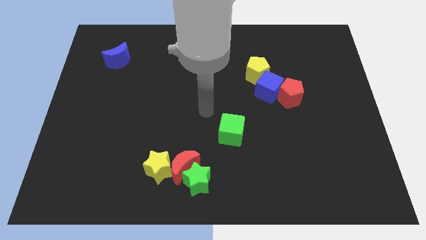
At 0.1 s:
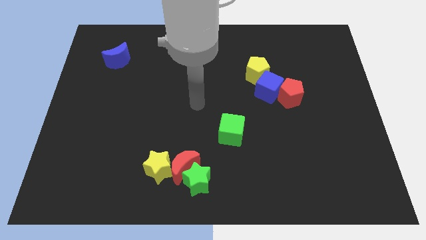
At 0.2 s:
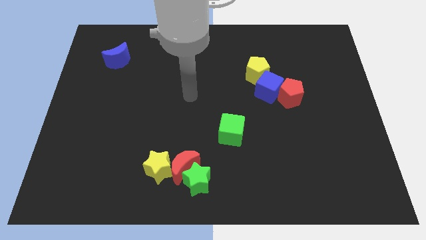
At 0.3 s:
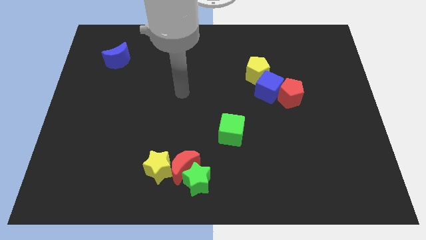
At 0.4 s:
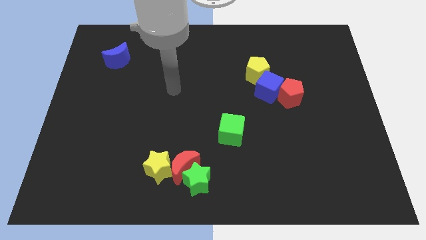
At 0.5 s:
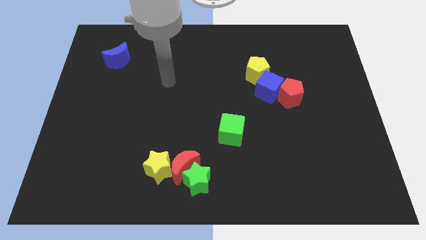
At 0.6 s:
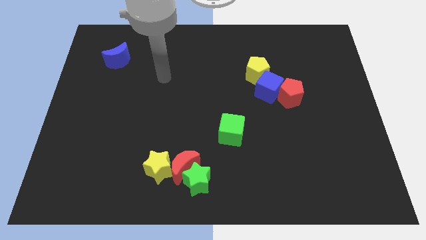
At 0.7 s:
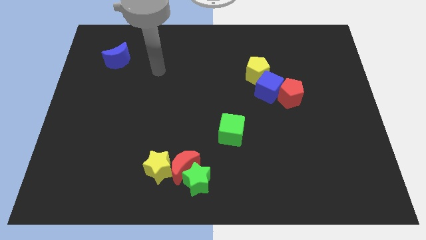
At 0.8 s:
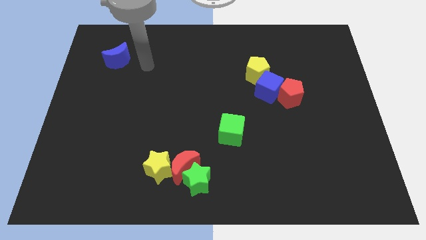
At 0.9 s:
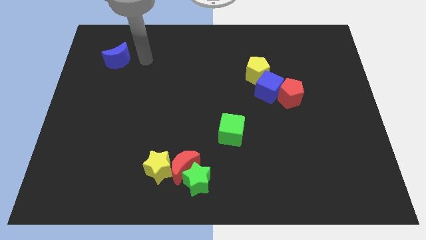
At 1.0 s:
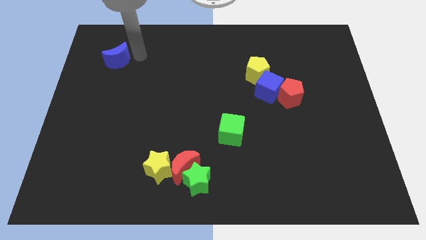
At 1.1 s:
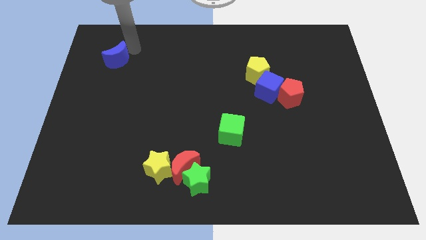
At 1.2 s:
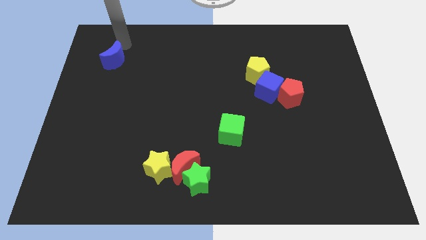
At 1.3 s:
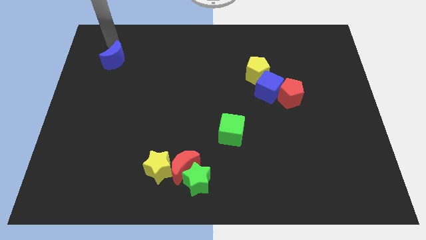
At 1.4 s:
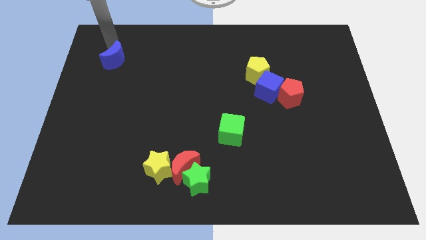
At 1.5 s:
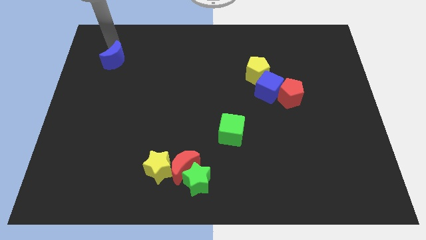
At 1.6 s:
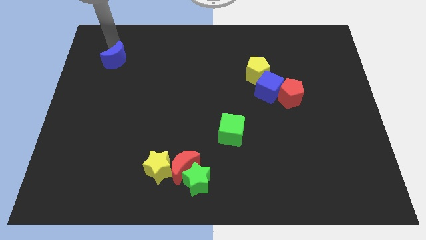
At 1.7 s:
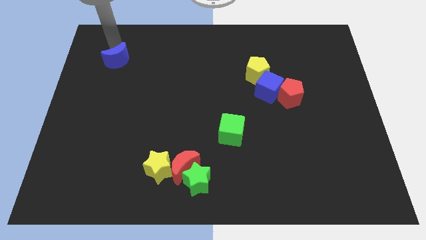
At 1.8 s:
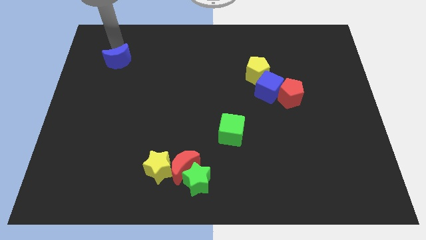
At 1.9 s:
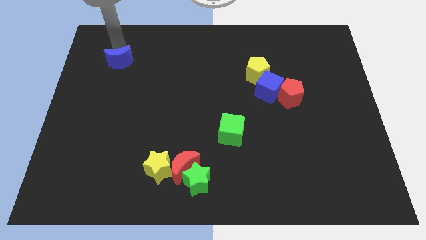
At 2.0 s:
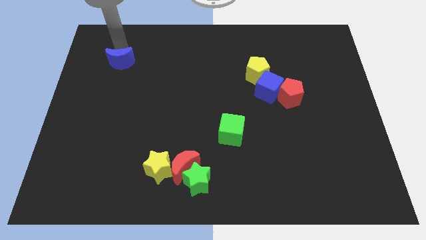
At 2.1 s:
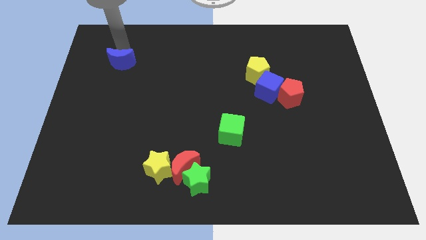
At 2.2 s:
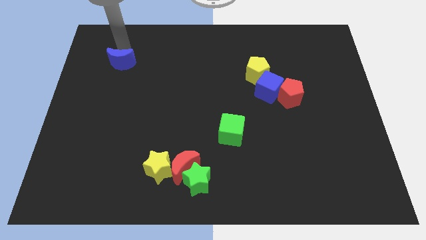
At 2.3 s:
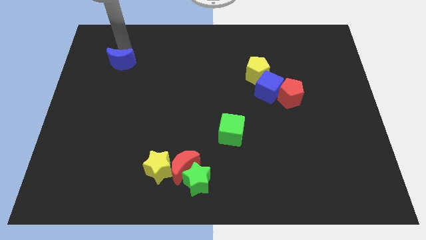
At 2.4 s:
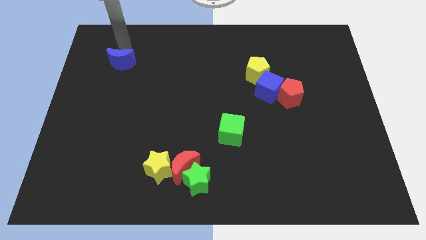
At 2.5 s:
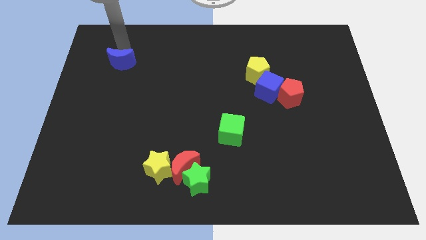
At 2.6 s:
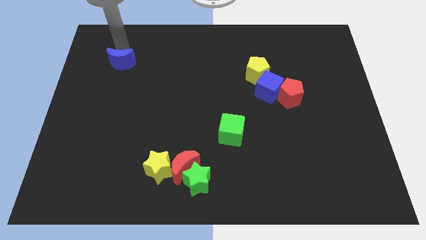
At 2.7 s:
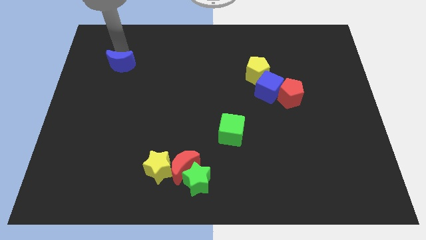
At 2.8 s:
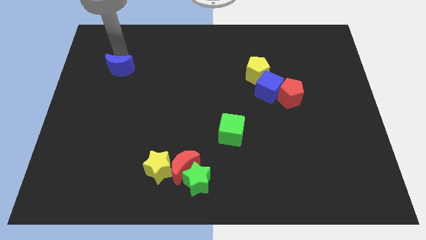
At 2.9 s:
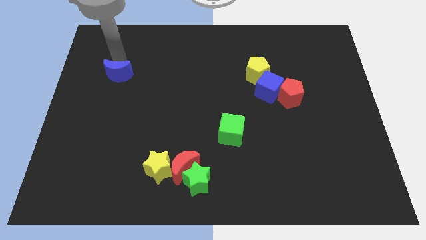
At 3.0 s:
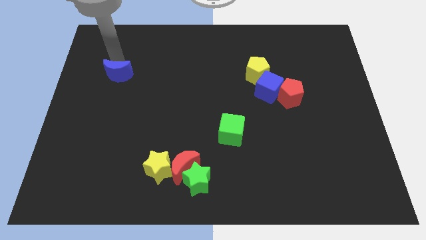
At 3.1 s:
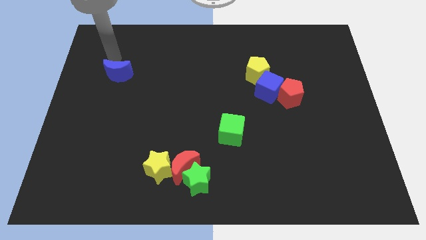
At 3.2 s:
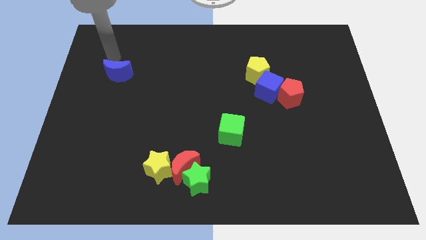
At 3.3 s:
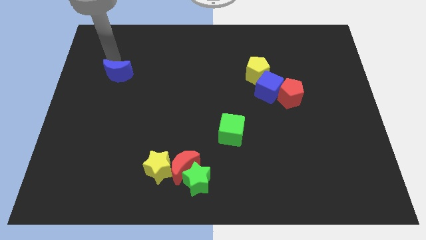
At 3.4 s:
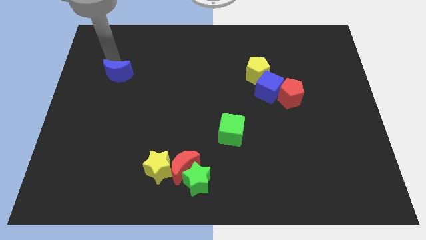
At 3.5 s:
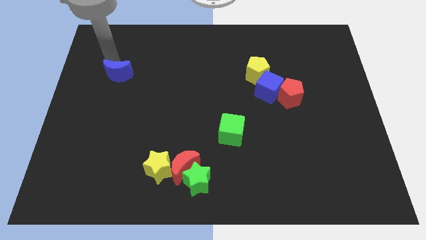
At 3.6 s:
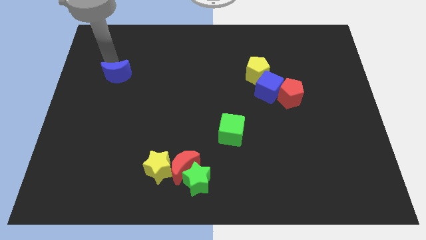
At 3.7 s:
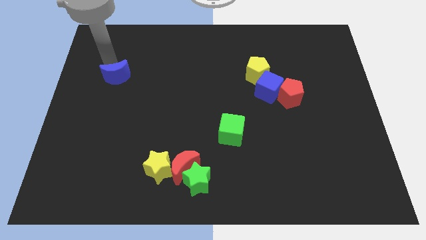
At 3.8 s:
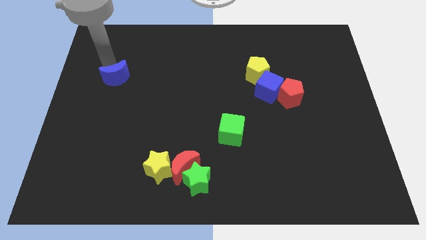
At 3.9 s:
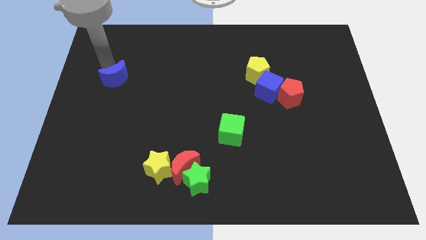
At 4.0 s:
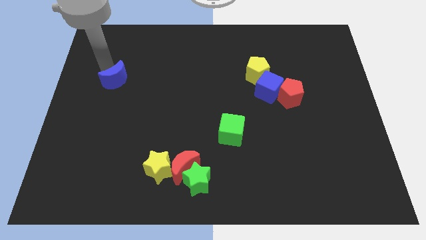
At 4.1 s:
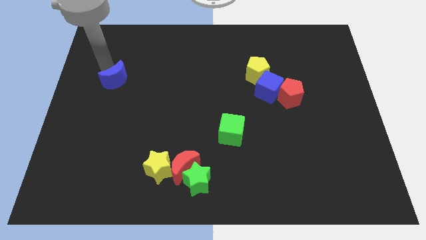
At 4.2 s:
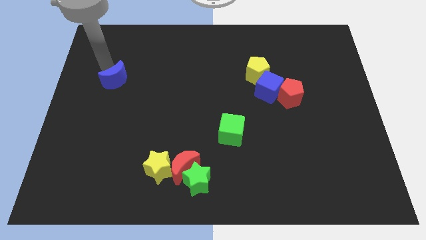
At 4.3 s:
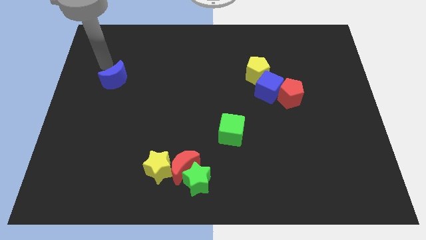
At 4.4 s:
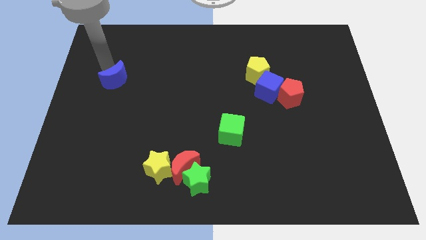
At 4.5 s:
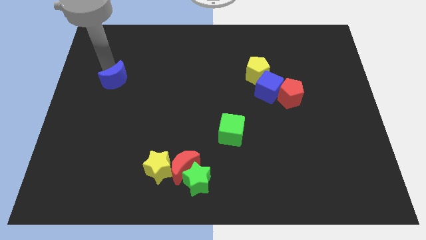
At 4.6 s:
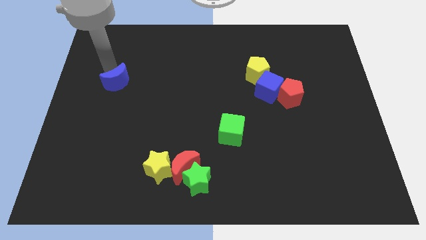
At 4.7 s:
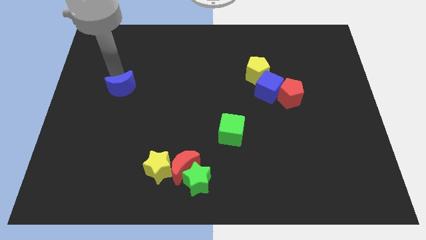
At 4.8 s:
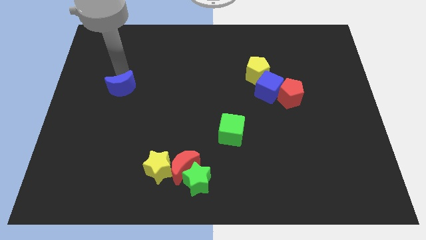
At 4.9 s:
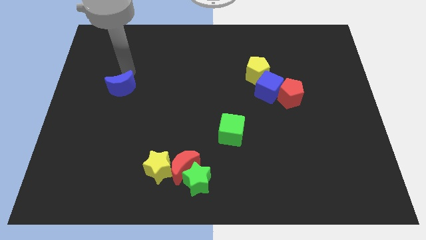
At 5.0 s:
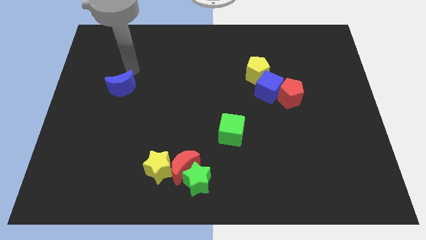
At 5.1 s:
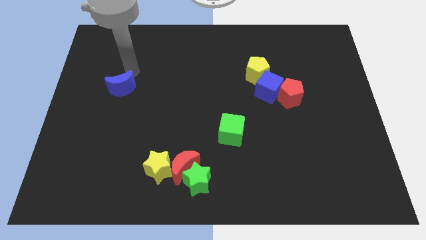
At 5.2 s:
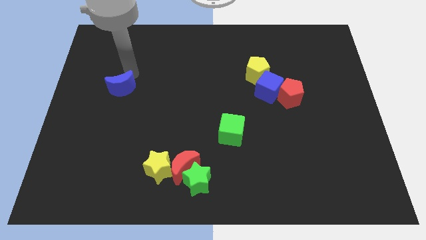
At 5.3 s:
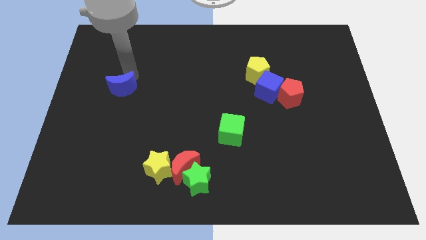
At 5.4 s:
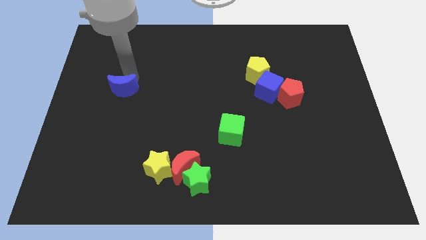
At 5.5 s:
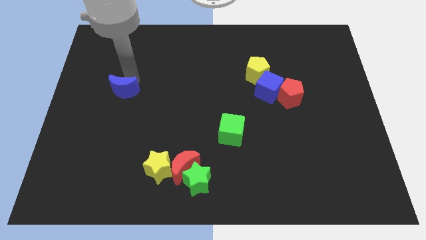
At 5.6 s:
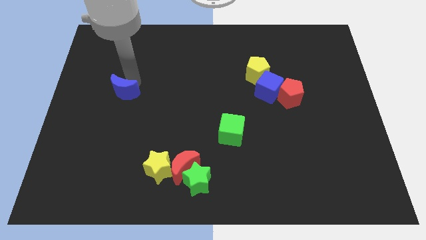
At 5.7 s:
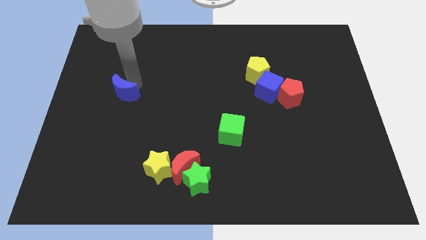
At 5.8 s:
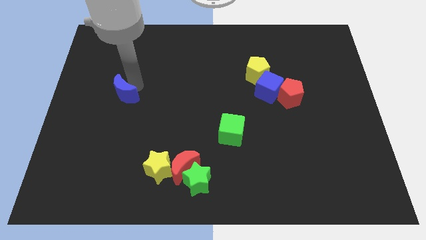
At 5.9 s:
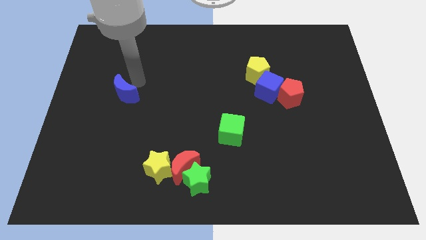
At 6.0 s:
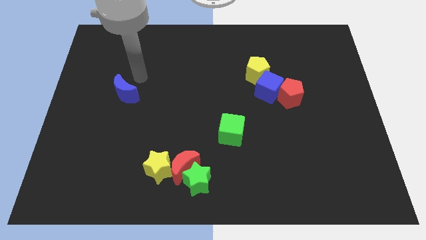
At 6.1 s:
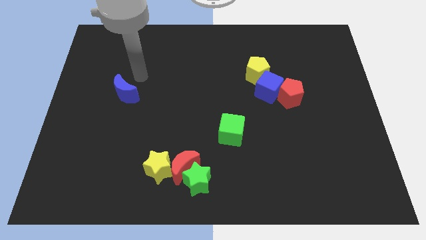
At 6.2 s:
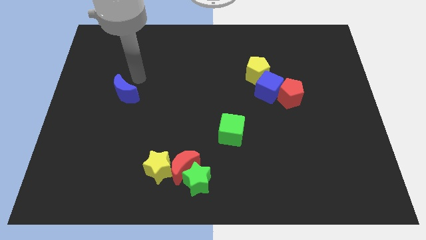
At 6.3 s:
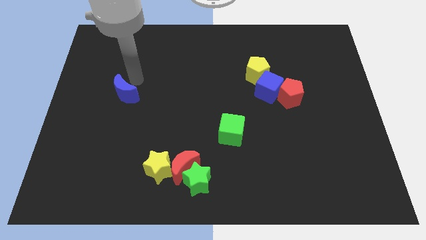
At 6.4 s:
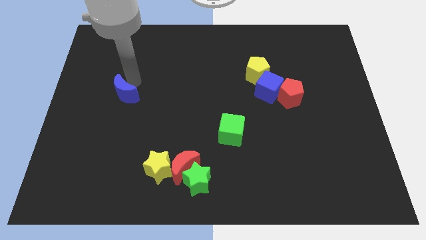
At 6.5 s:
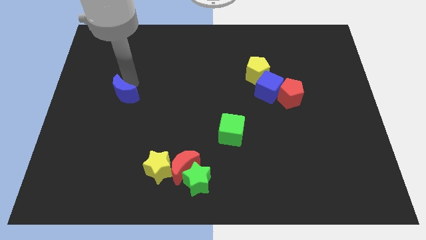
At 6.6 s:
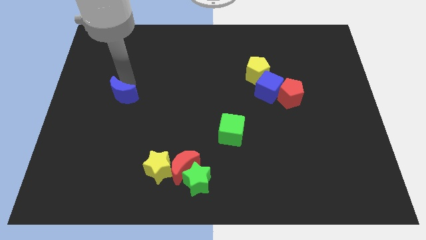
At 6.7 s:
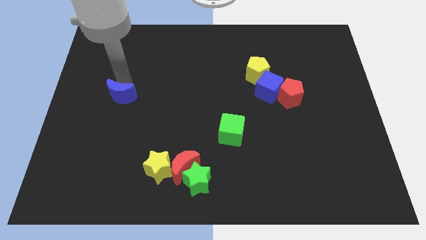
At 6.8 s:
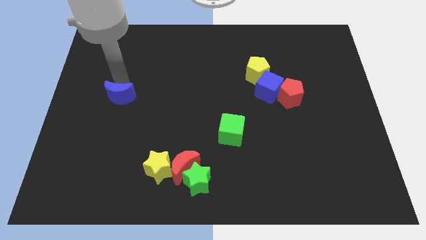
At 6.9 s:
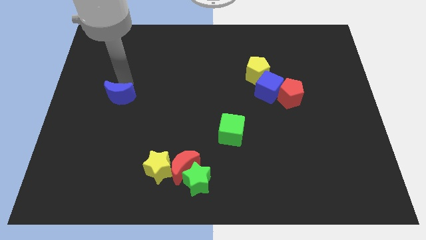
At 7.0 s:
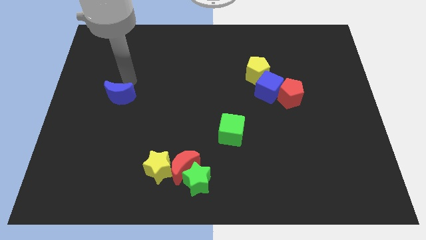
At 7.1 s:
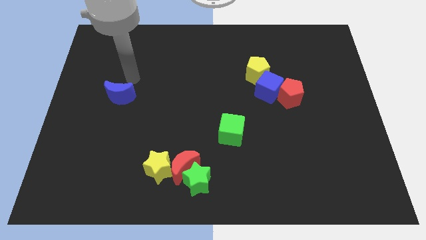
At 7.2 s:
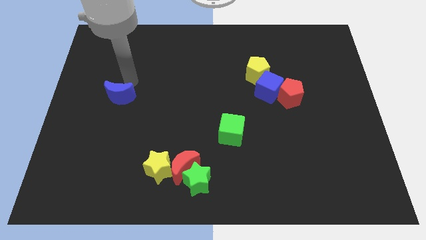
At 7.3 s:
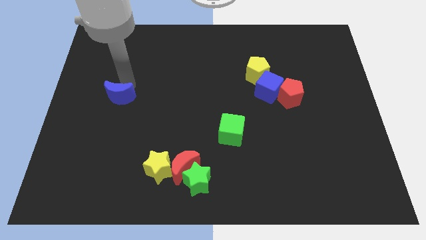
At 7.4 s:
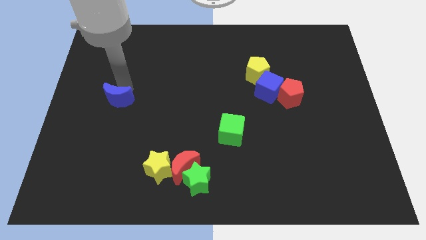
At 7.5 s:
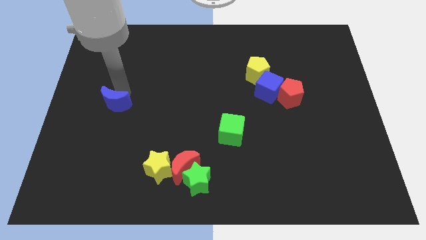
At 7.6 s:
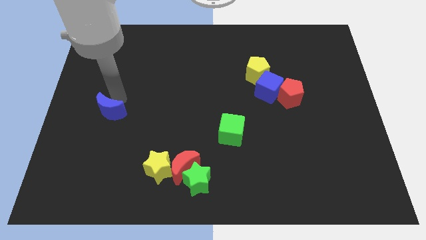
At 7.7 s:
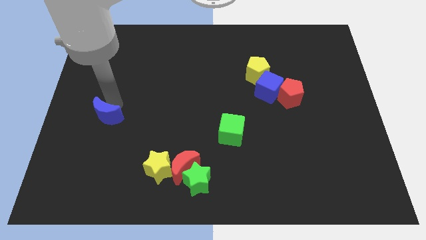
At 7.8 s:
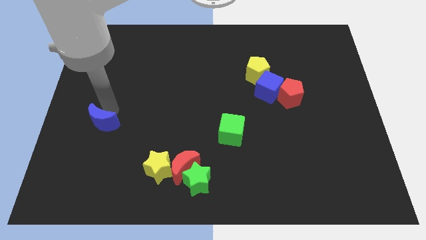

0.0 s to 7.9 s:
push the blue moon down
